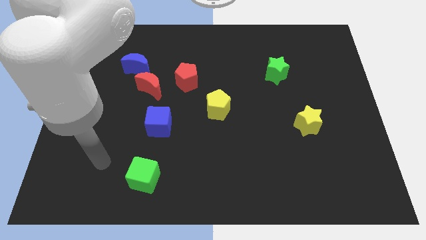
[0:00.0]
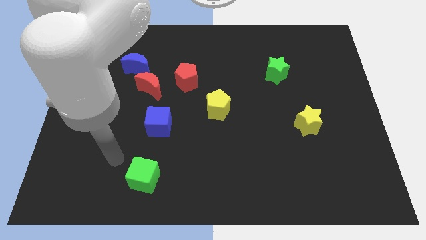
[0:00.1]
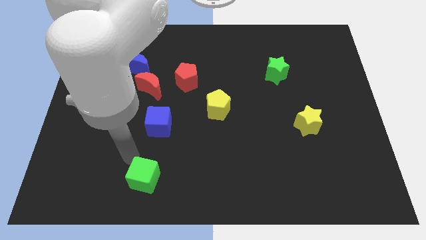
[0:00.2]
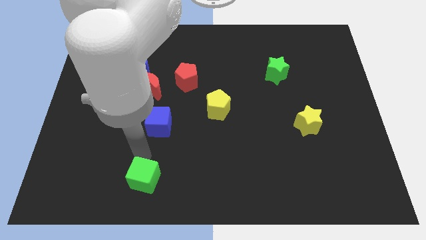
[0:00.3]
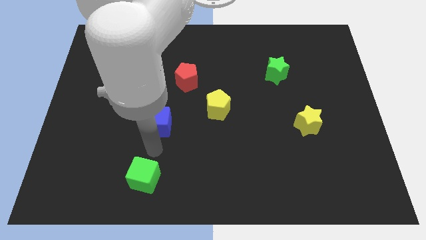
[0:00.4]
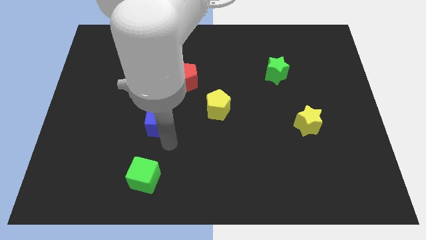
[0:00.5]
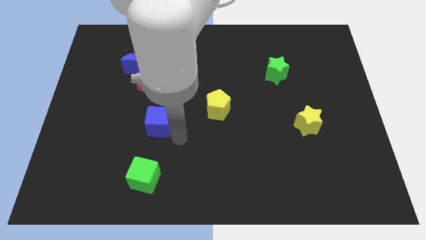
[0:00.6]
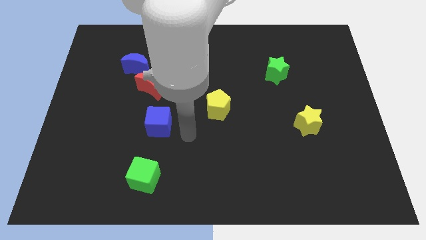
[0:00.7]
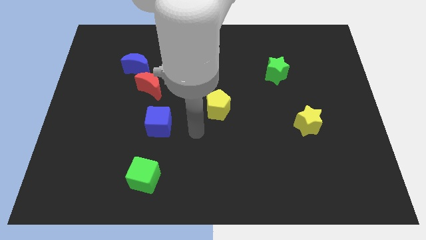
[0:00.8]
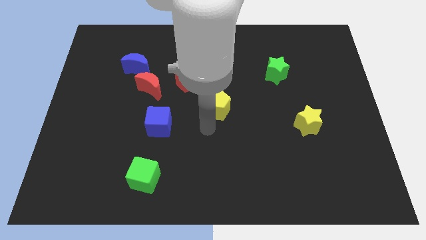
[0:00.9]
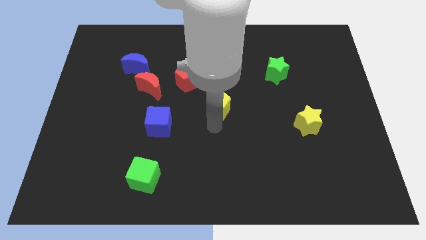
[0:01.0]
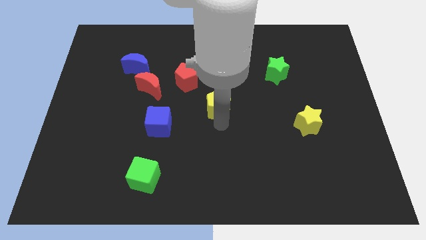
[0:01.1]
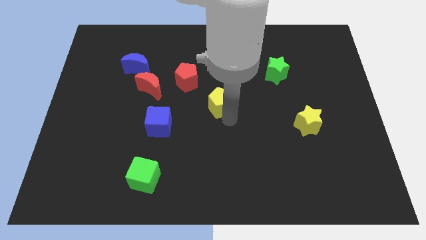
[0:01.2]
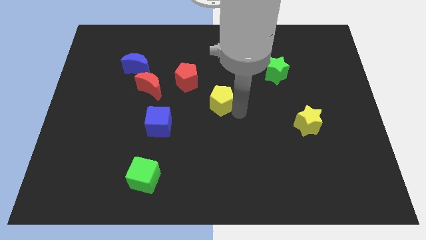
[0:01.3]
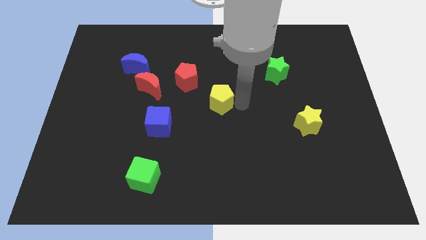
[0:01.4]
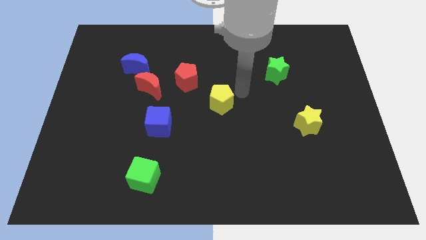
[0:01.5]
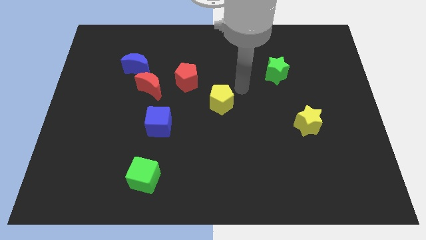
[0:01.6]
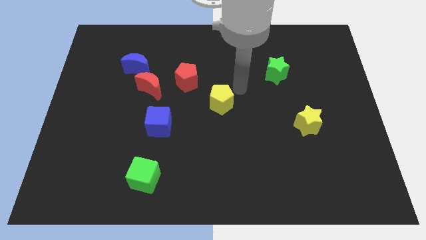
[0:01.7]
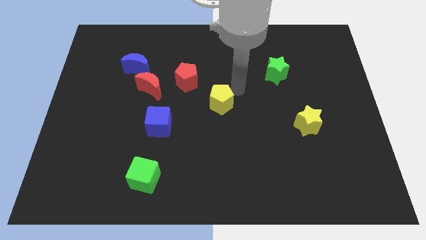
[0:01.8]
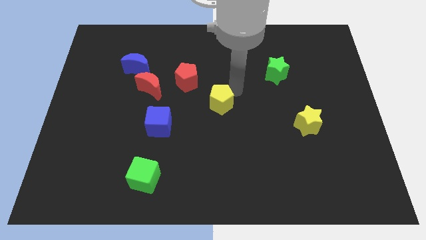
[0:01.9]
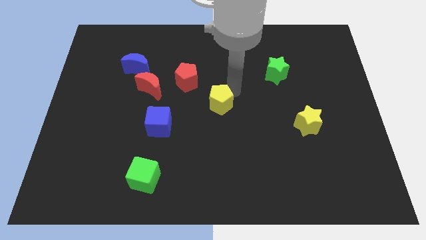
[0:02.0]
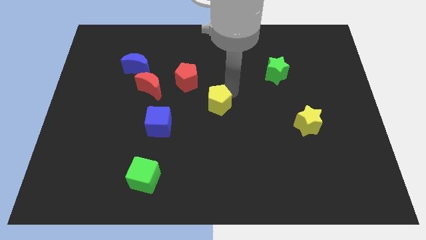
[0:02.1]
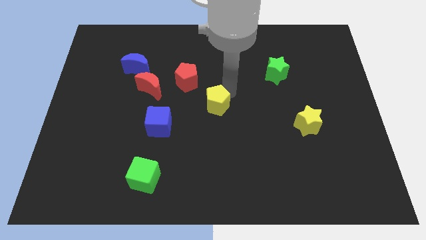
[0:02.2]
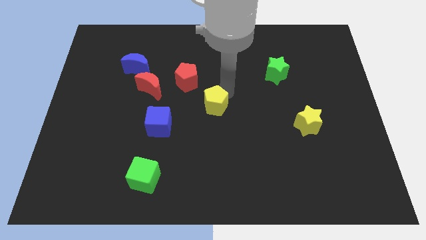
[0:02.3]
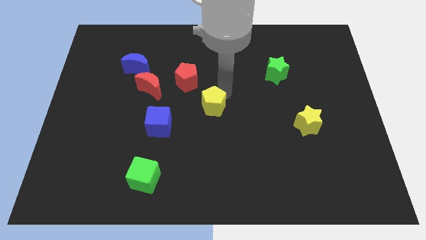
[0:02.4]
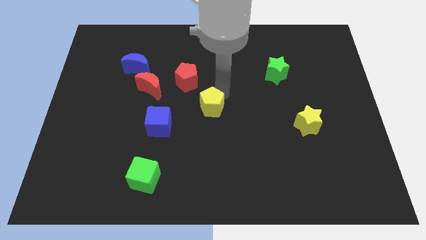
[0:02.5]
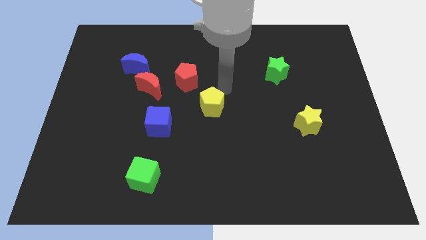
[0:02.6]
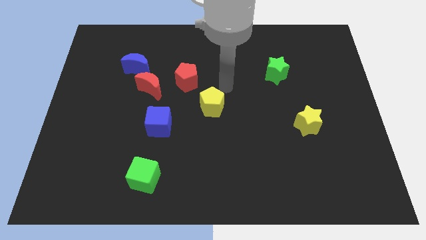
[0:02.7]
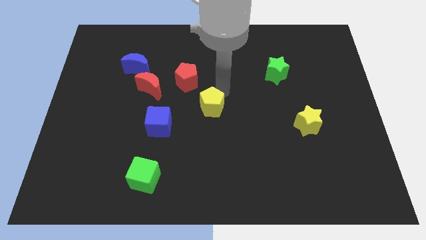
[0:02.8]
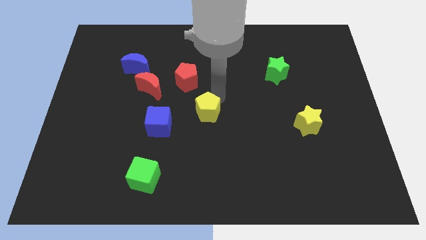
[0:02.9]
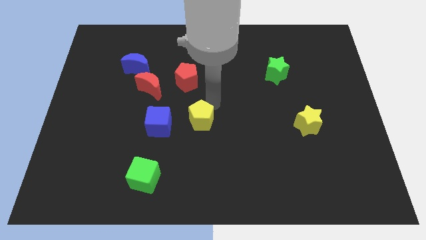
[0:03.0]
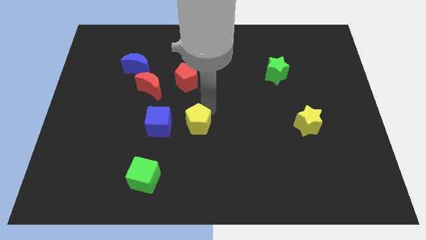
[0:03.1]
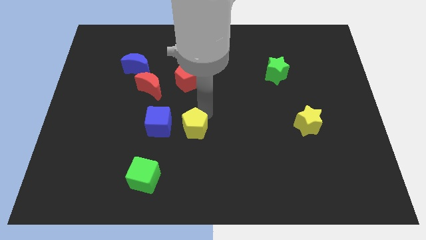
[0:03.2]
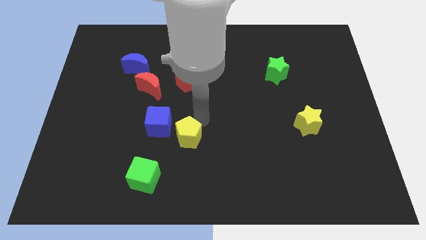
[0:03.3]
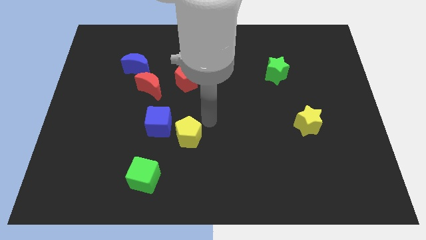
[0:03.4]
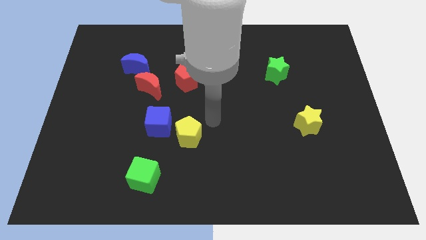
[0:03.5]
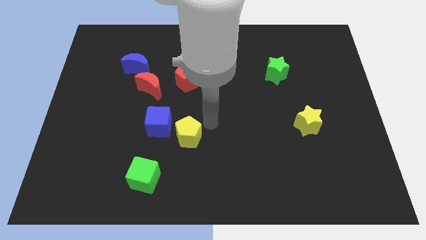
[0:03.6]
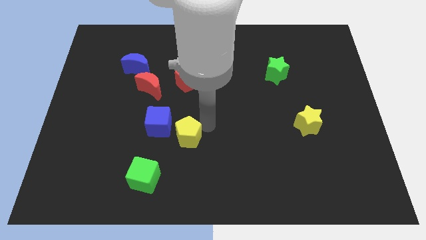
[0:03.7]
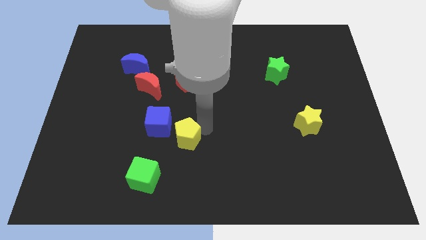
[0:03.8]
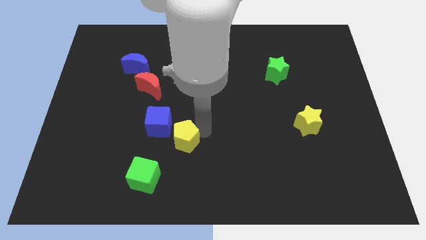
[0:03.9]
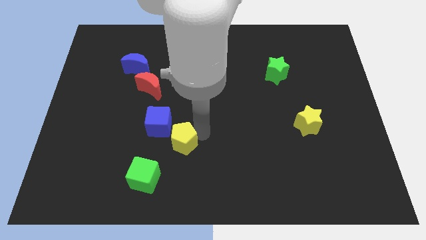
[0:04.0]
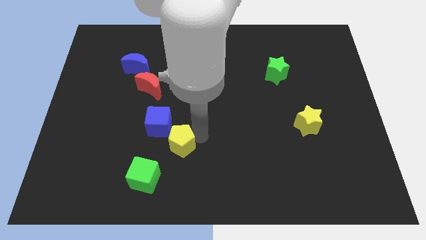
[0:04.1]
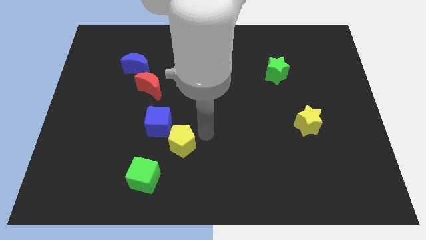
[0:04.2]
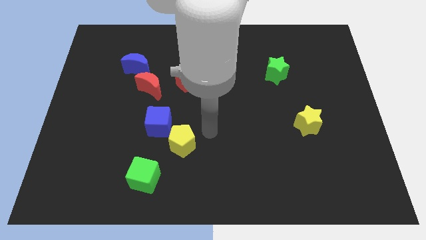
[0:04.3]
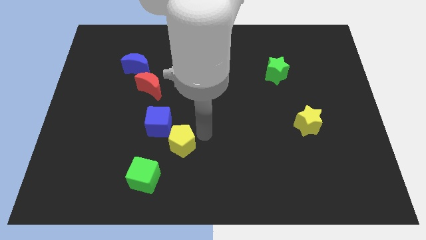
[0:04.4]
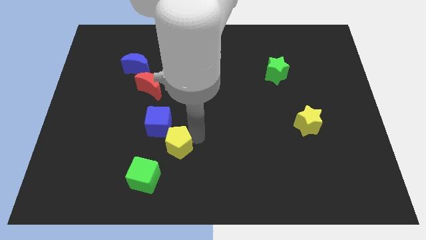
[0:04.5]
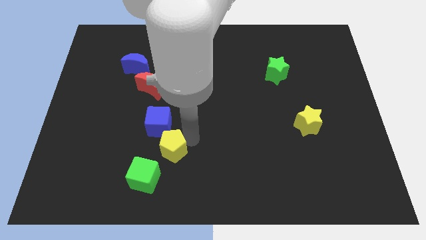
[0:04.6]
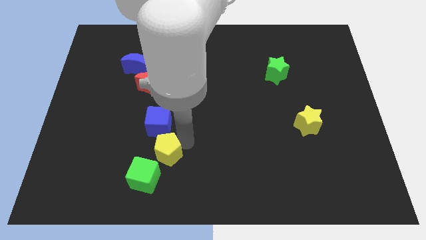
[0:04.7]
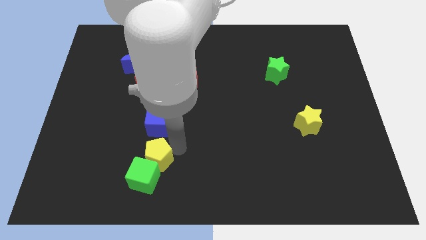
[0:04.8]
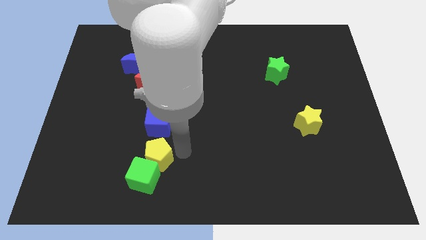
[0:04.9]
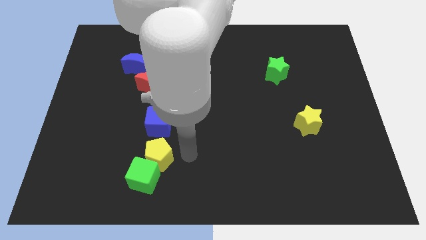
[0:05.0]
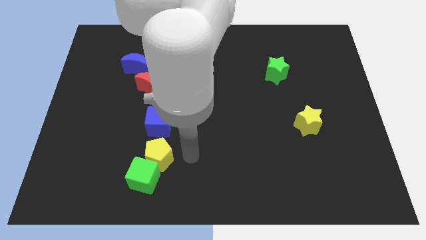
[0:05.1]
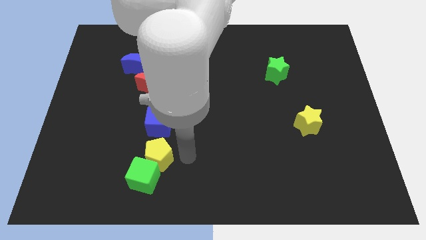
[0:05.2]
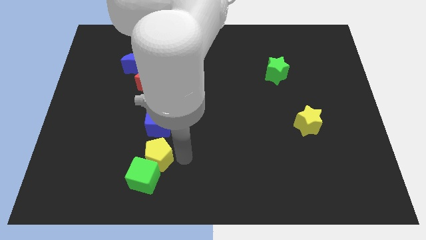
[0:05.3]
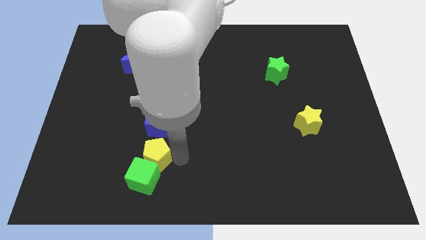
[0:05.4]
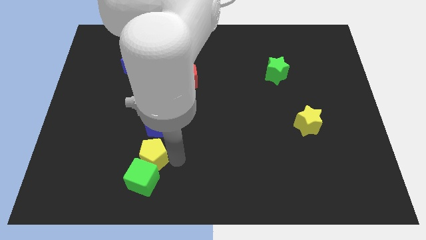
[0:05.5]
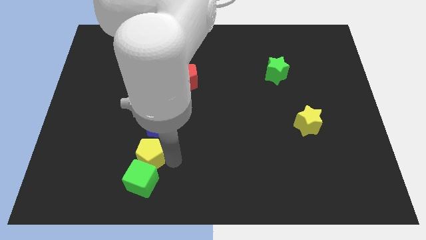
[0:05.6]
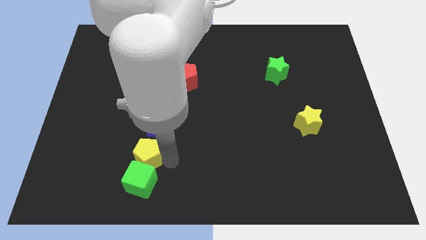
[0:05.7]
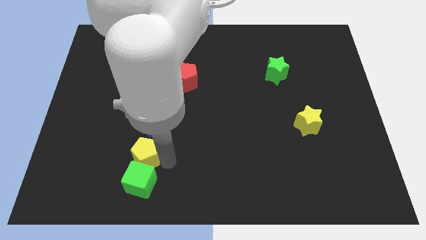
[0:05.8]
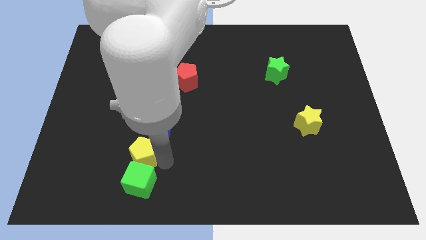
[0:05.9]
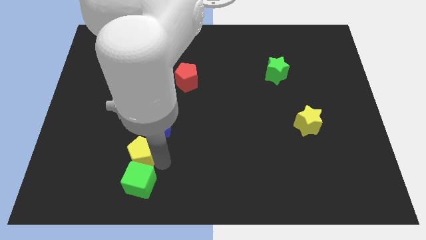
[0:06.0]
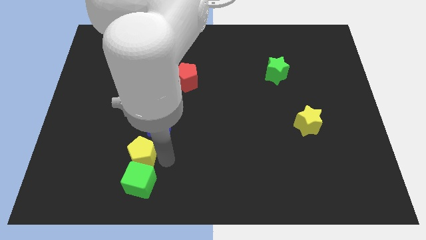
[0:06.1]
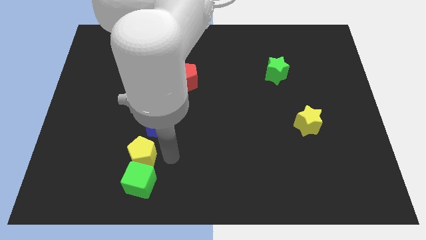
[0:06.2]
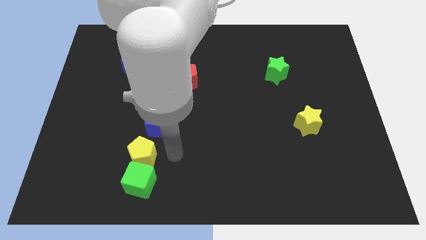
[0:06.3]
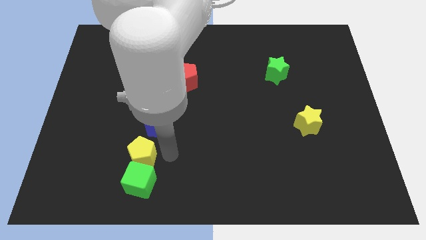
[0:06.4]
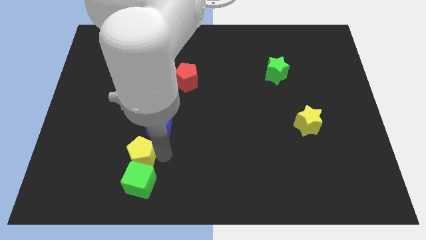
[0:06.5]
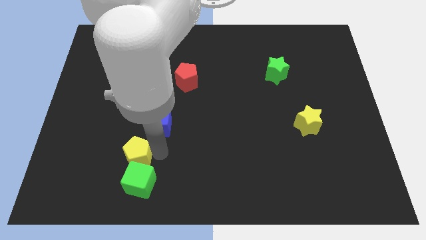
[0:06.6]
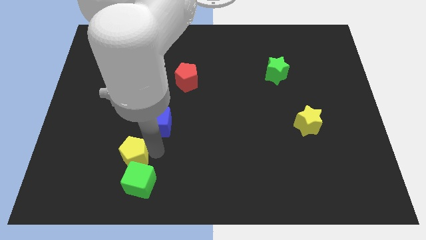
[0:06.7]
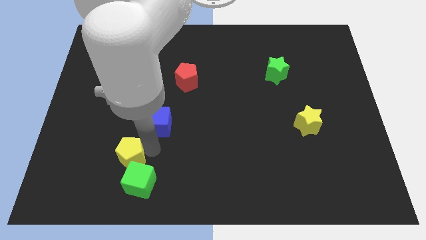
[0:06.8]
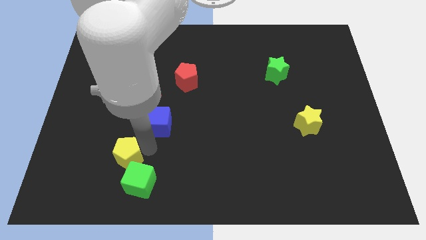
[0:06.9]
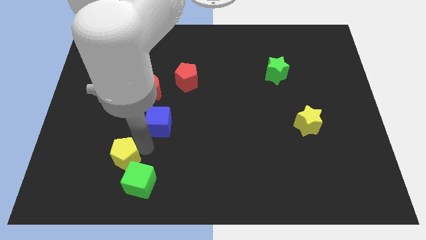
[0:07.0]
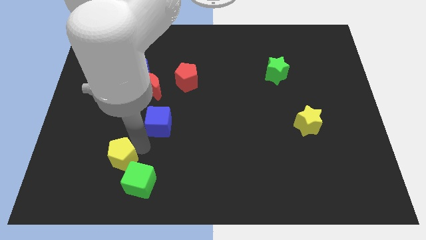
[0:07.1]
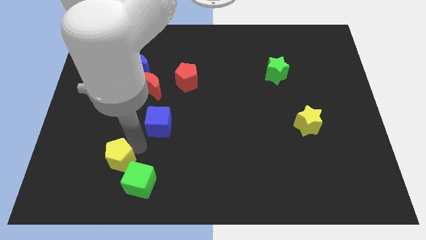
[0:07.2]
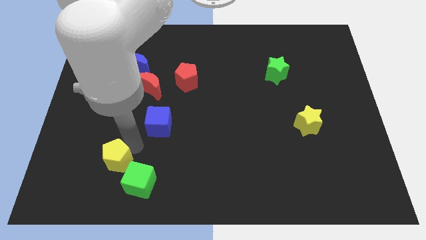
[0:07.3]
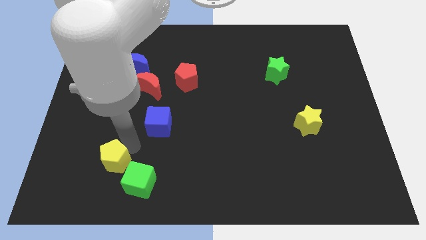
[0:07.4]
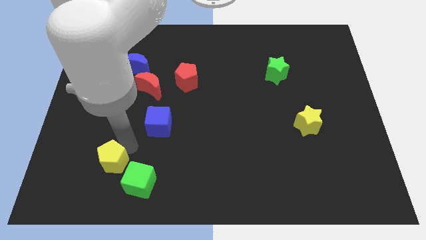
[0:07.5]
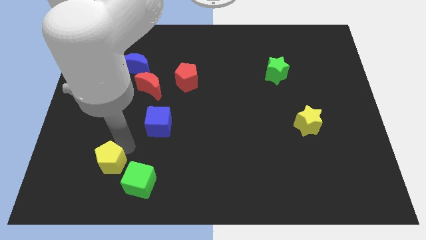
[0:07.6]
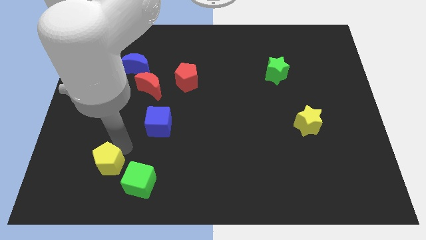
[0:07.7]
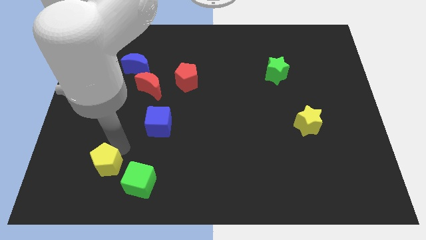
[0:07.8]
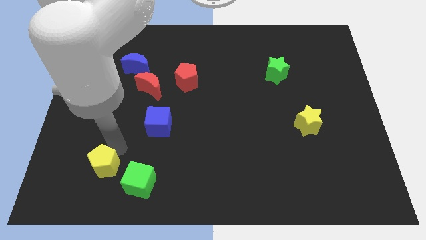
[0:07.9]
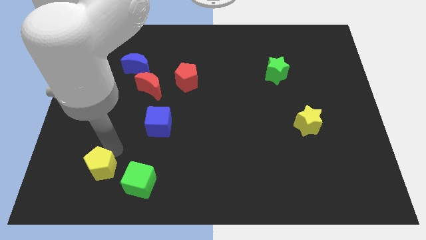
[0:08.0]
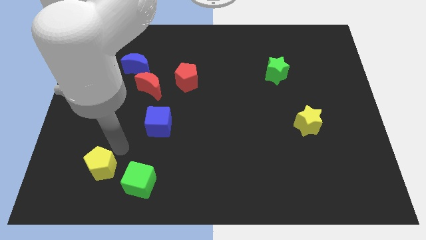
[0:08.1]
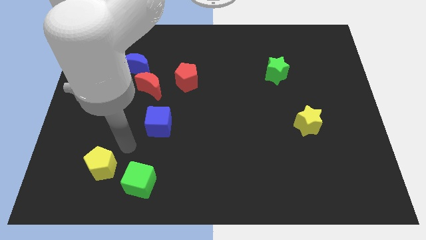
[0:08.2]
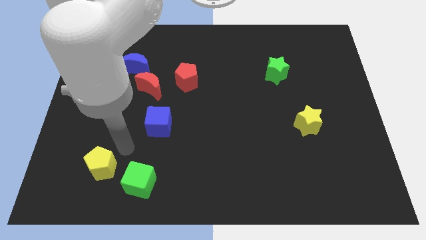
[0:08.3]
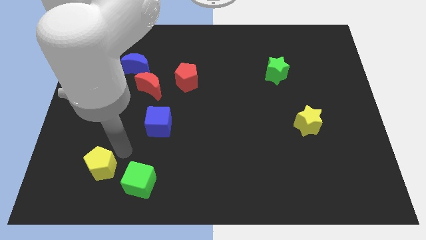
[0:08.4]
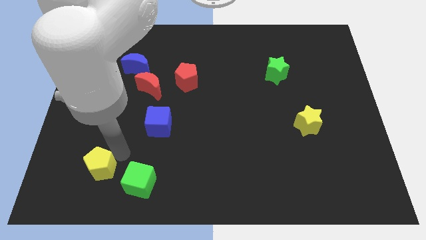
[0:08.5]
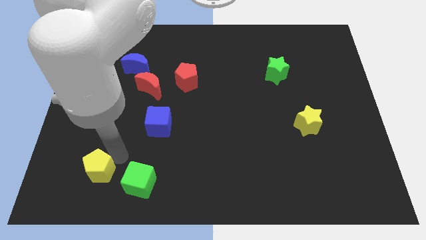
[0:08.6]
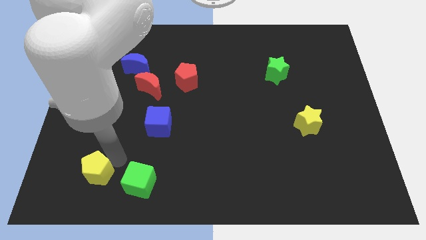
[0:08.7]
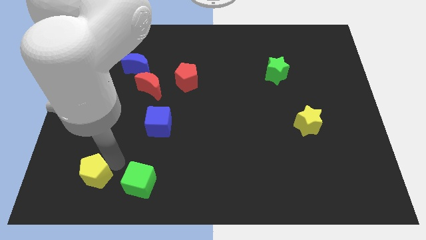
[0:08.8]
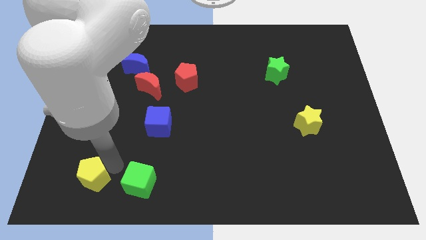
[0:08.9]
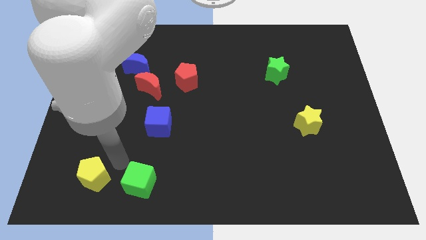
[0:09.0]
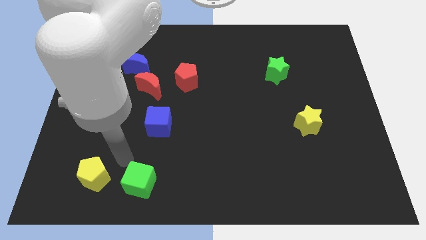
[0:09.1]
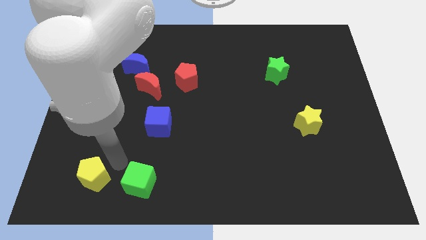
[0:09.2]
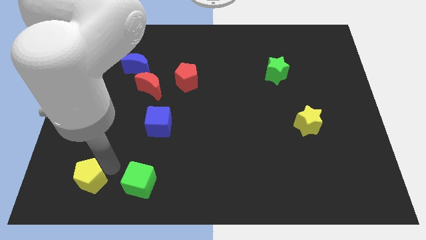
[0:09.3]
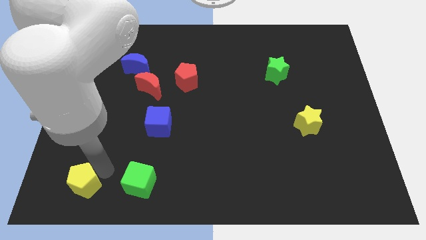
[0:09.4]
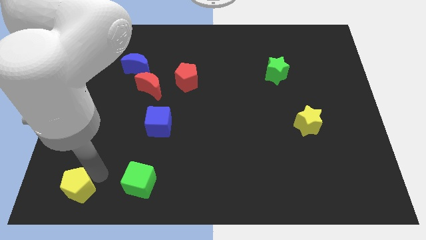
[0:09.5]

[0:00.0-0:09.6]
put the yellow pentagon to the bottom left of the board
